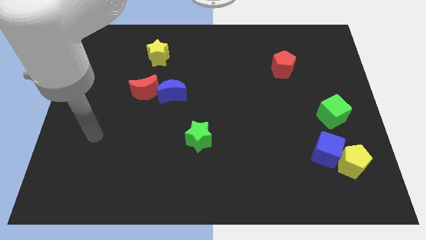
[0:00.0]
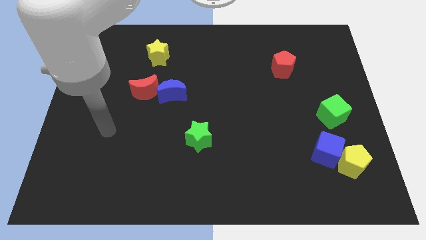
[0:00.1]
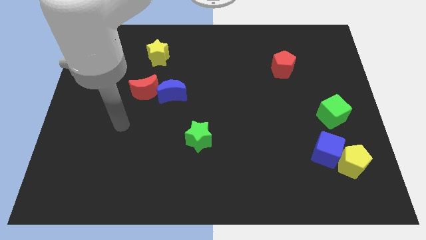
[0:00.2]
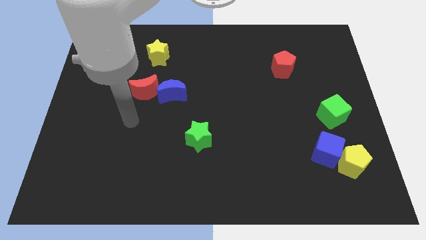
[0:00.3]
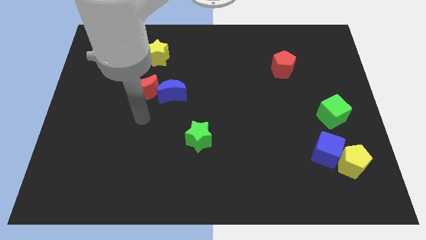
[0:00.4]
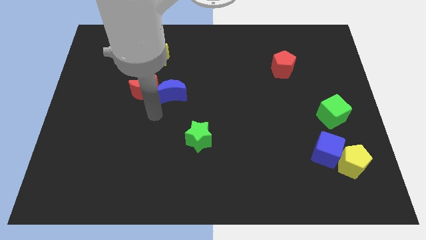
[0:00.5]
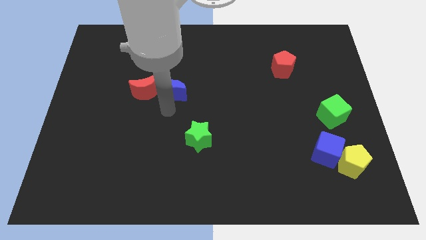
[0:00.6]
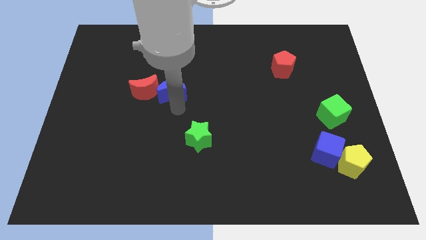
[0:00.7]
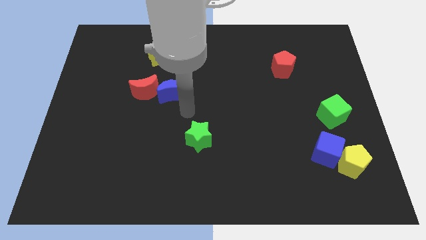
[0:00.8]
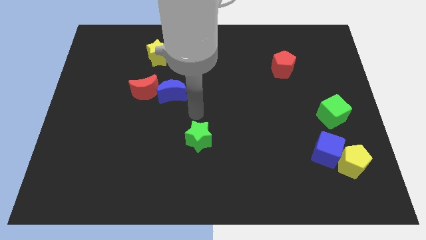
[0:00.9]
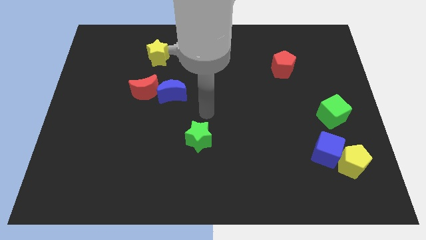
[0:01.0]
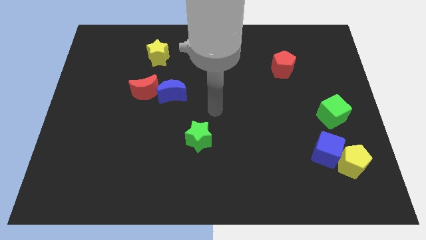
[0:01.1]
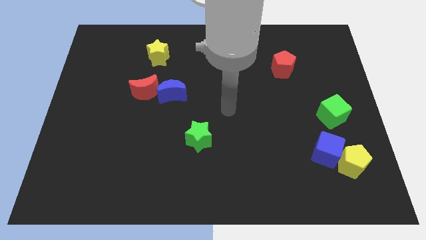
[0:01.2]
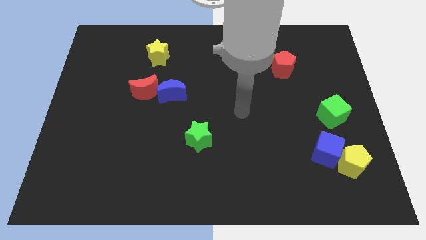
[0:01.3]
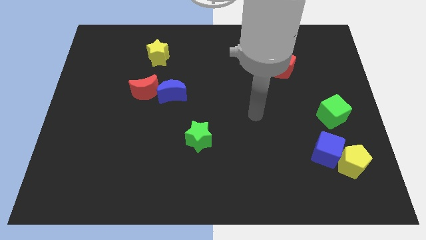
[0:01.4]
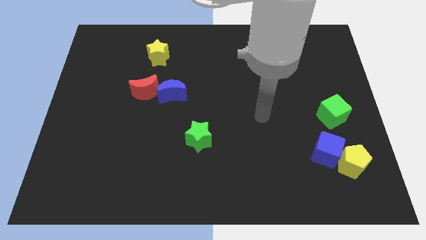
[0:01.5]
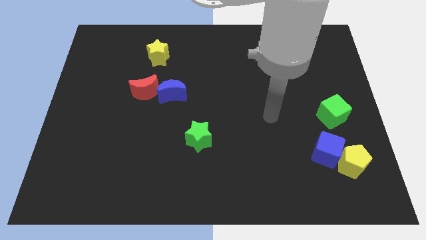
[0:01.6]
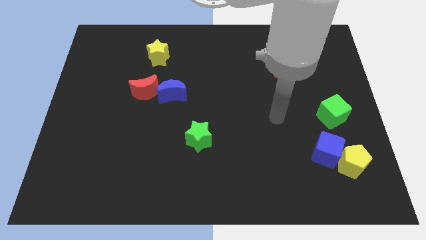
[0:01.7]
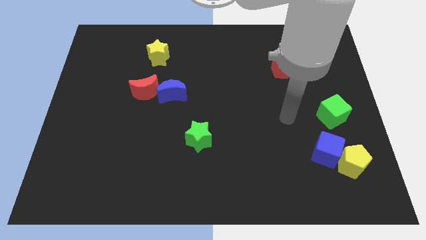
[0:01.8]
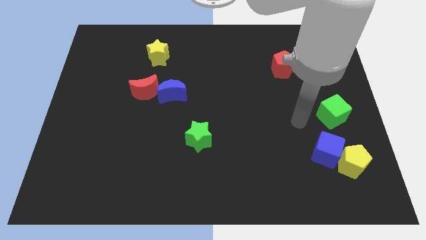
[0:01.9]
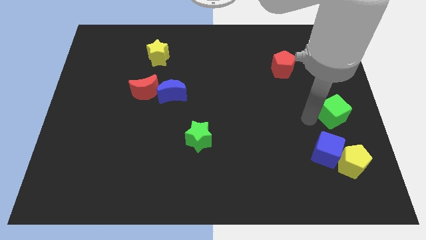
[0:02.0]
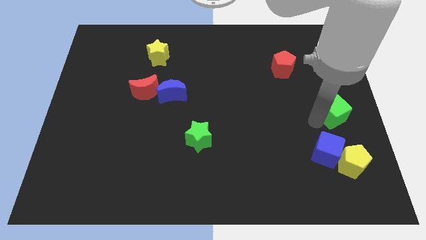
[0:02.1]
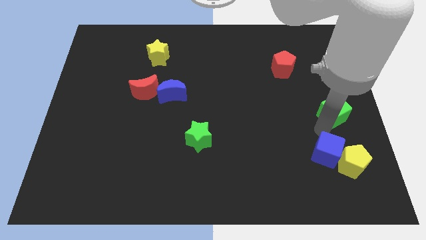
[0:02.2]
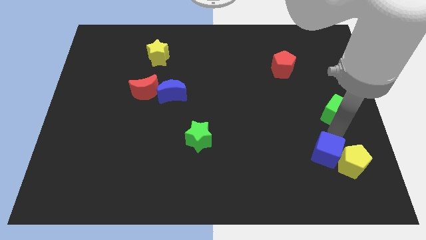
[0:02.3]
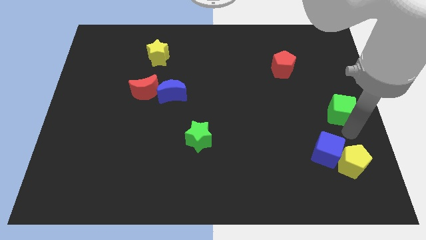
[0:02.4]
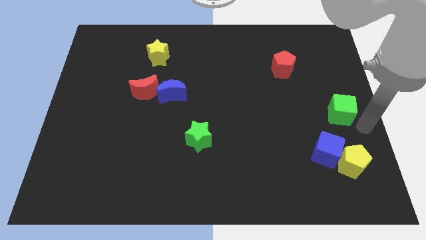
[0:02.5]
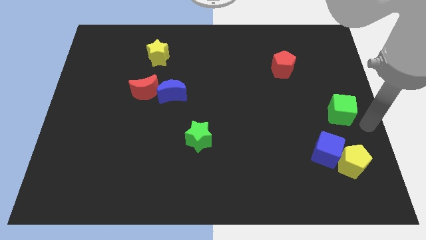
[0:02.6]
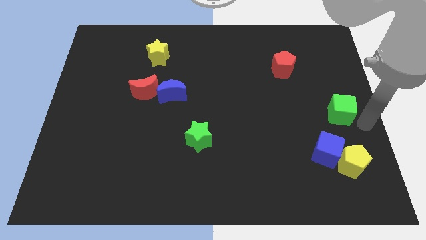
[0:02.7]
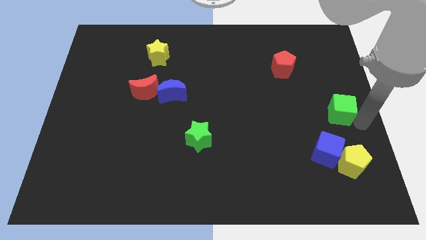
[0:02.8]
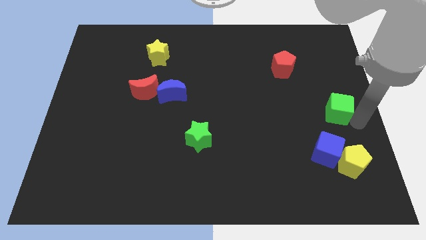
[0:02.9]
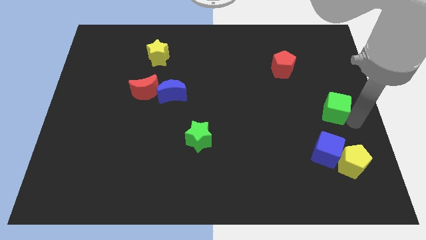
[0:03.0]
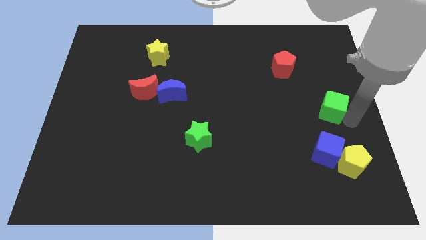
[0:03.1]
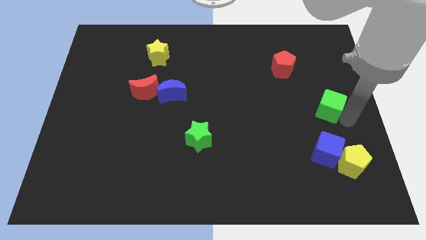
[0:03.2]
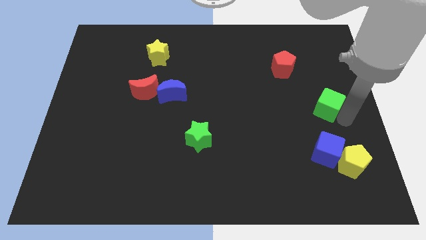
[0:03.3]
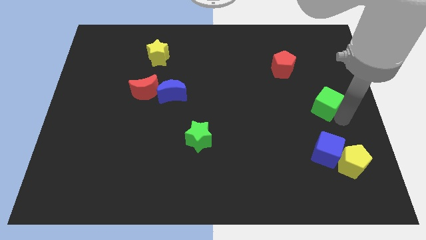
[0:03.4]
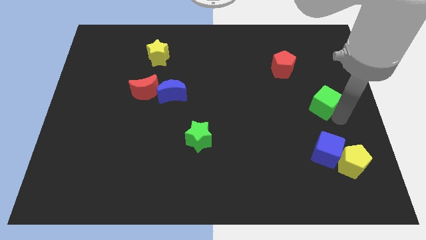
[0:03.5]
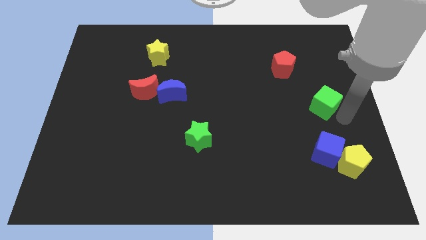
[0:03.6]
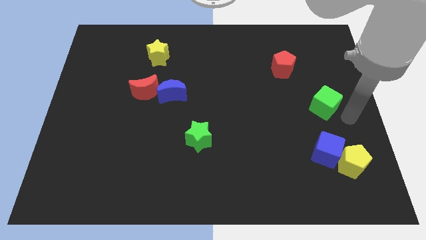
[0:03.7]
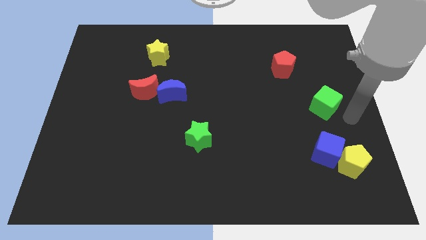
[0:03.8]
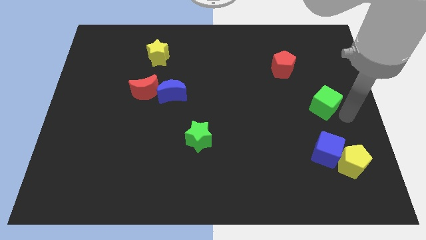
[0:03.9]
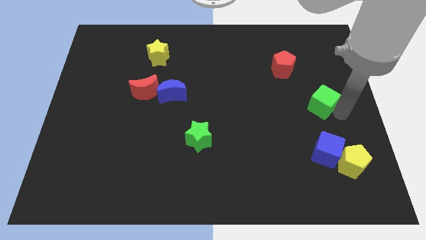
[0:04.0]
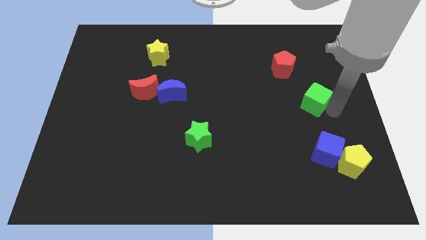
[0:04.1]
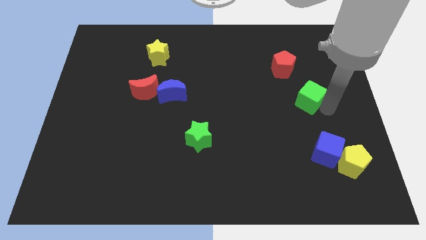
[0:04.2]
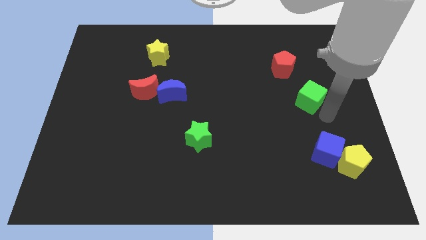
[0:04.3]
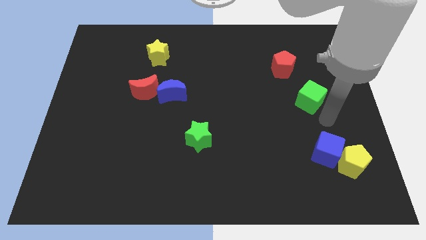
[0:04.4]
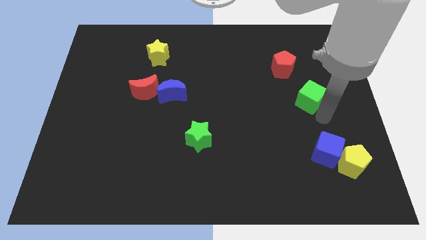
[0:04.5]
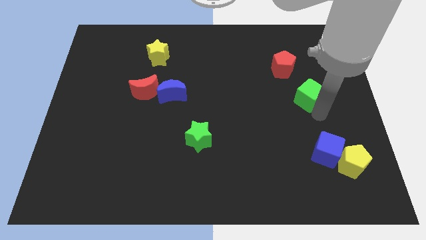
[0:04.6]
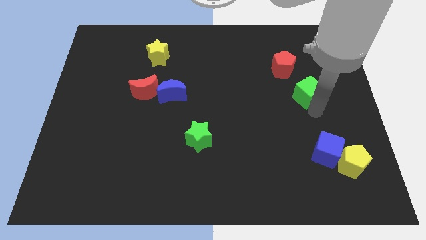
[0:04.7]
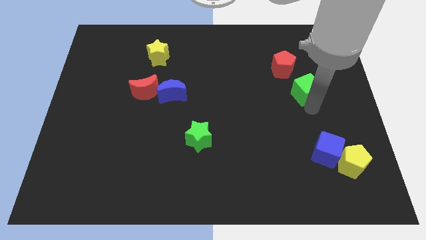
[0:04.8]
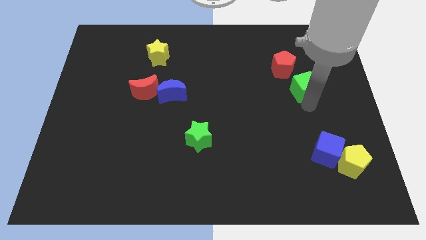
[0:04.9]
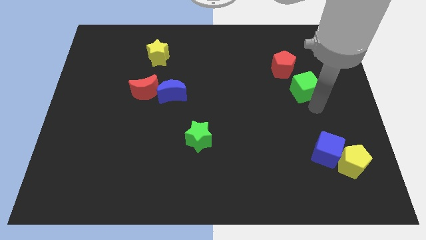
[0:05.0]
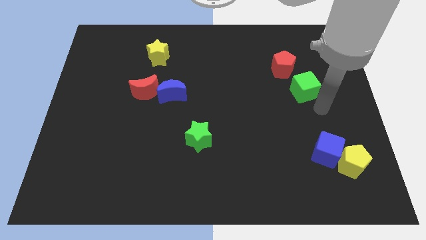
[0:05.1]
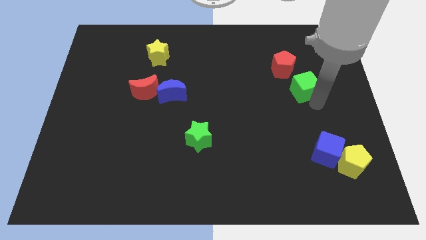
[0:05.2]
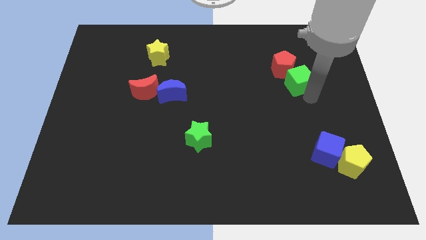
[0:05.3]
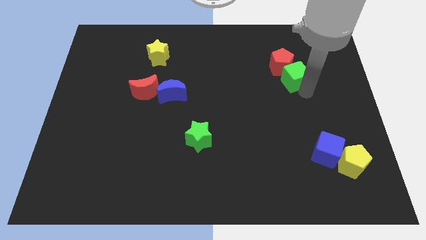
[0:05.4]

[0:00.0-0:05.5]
put the green cube towards the red pentagon

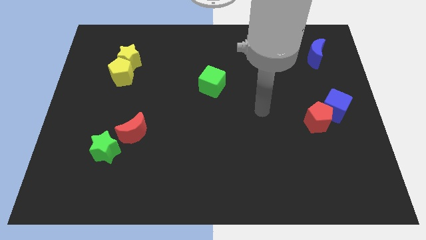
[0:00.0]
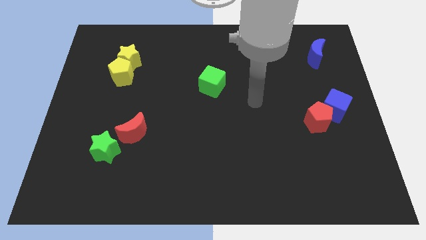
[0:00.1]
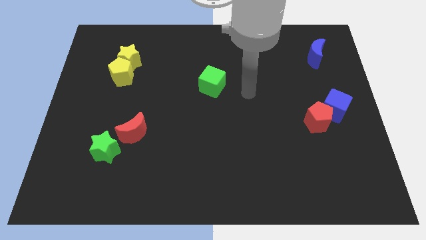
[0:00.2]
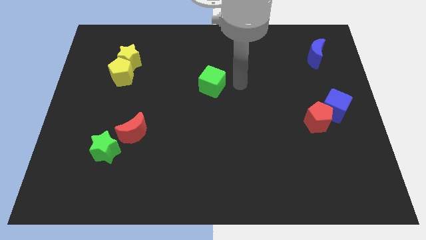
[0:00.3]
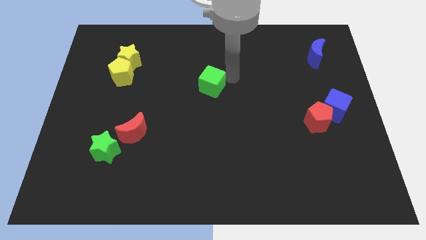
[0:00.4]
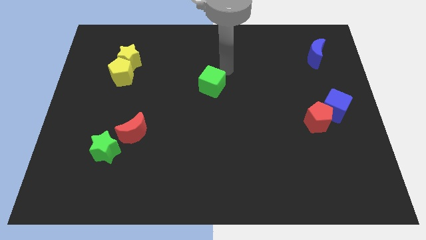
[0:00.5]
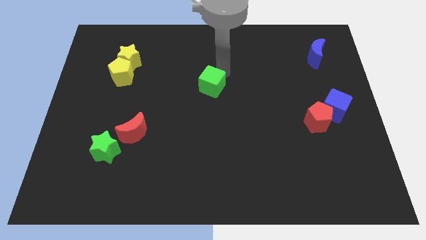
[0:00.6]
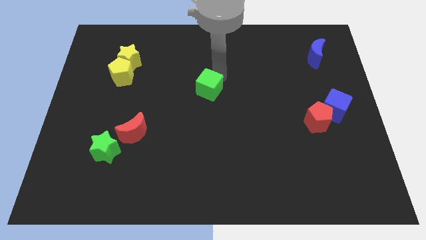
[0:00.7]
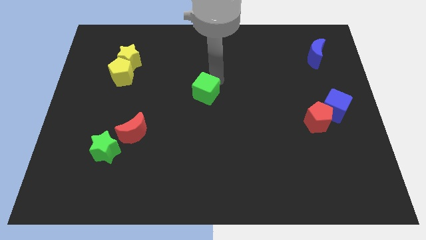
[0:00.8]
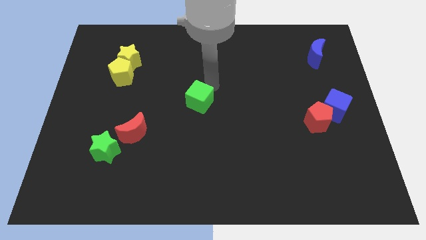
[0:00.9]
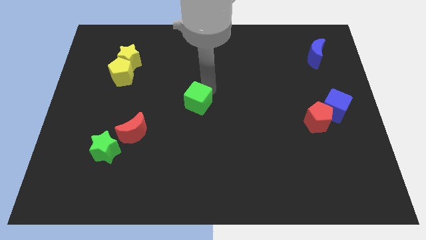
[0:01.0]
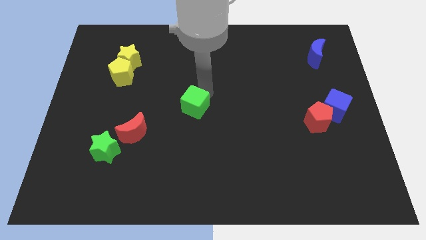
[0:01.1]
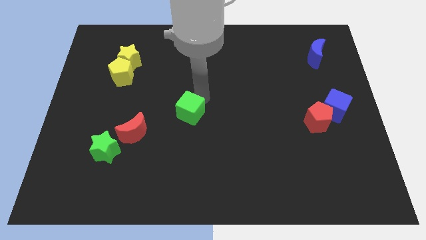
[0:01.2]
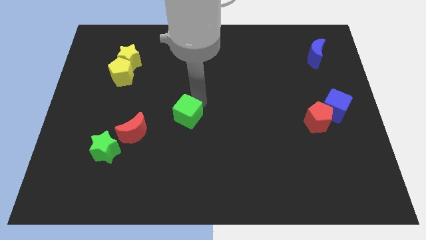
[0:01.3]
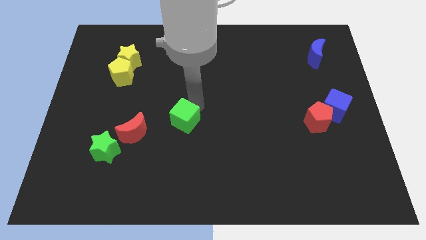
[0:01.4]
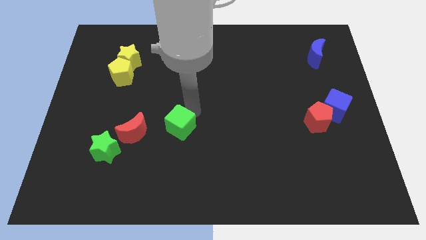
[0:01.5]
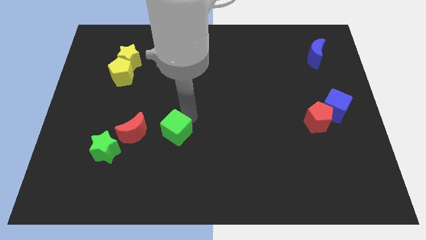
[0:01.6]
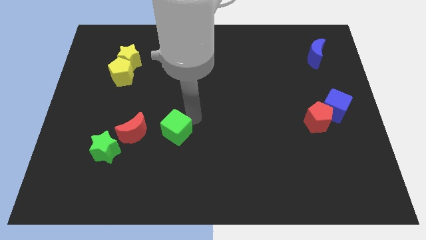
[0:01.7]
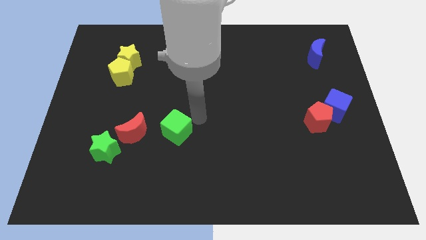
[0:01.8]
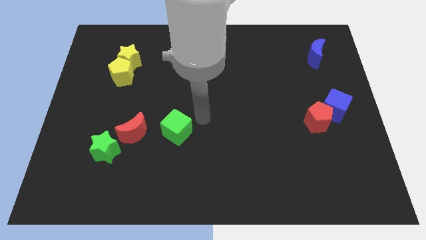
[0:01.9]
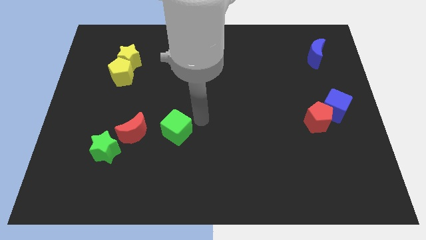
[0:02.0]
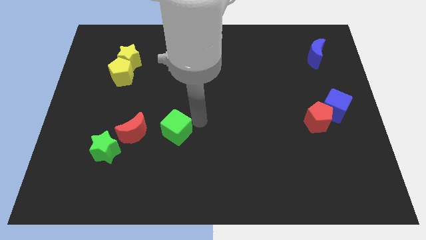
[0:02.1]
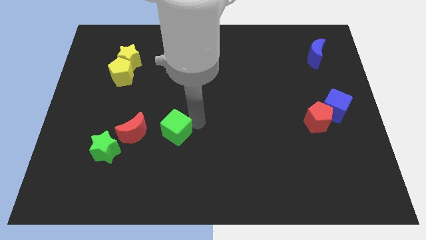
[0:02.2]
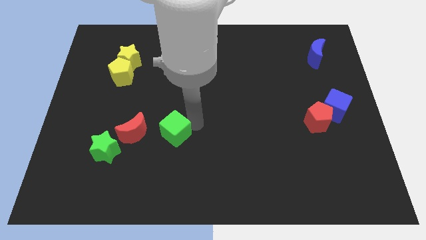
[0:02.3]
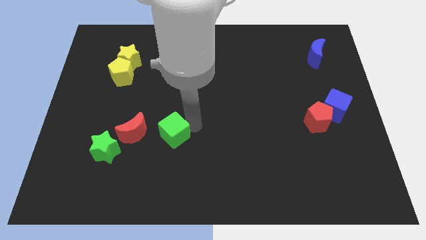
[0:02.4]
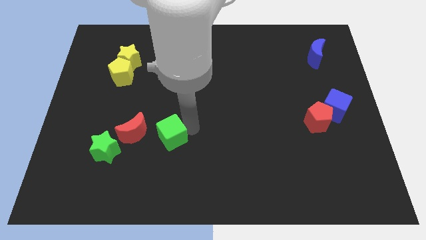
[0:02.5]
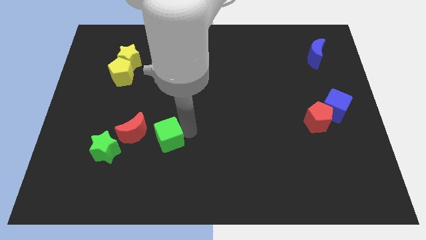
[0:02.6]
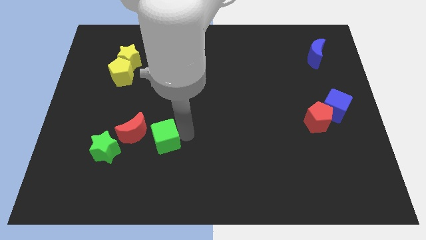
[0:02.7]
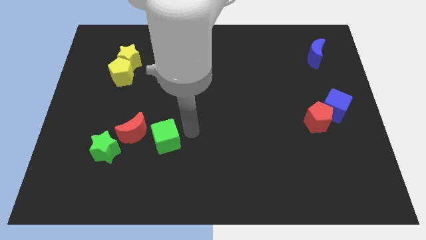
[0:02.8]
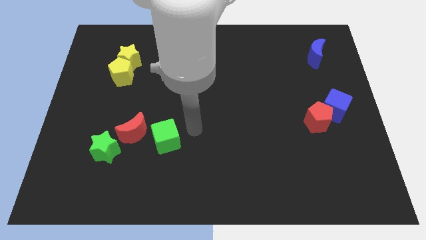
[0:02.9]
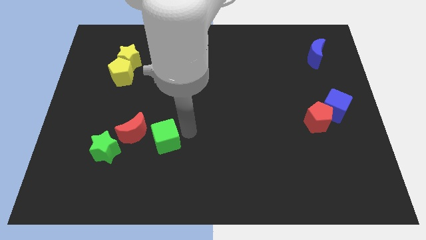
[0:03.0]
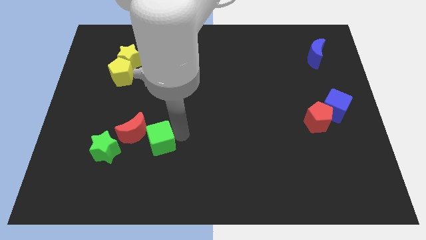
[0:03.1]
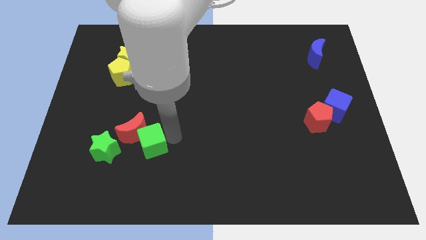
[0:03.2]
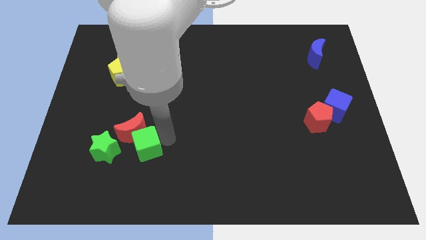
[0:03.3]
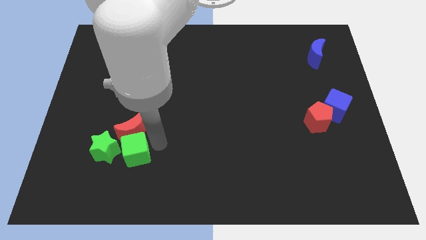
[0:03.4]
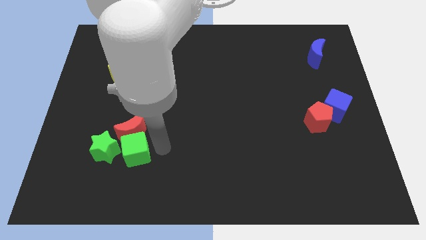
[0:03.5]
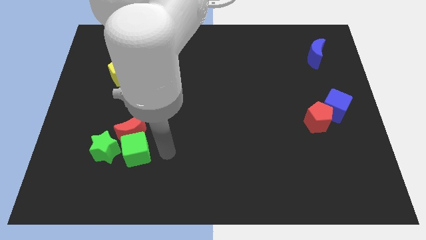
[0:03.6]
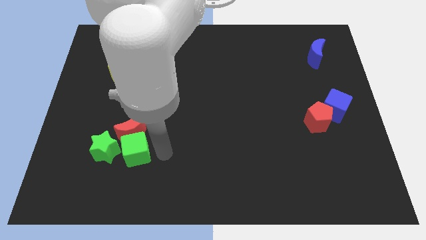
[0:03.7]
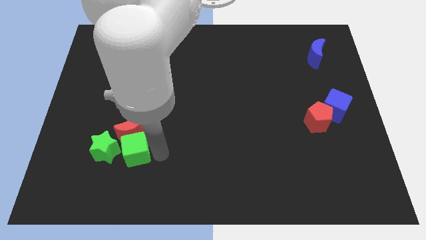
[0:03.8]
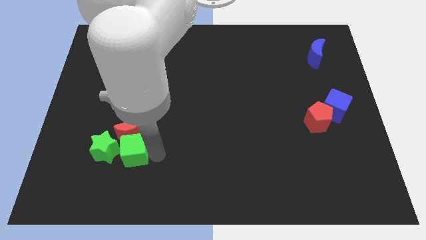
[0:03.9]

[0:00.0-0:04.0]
put the green cube next to the green star
